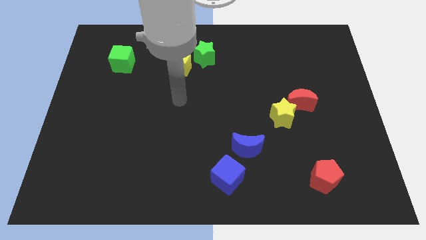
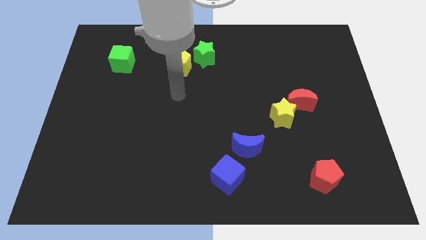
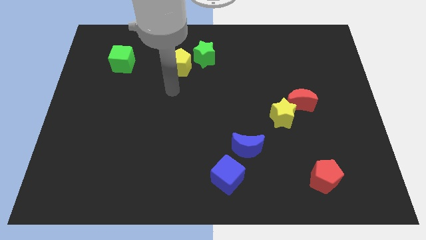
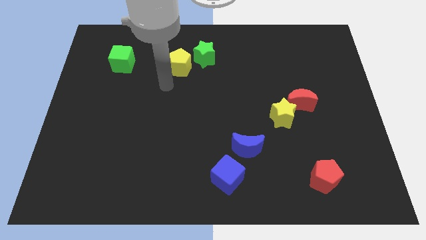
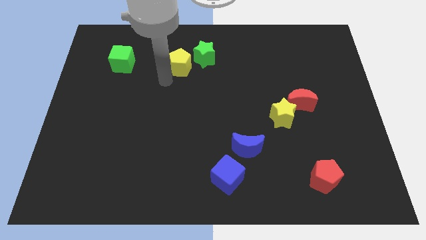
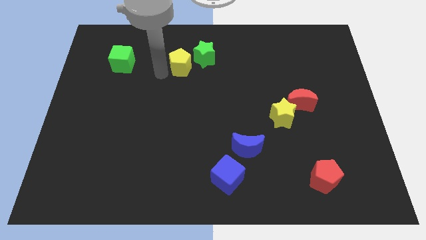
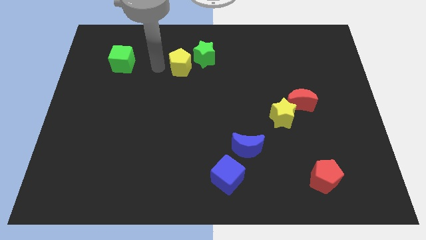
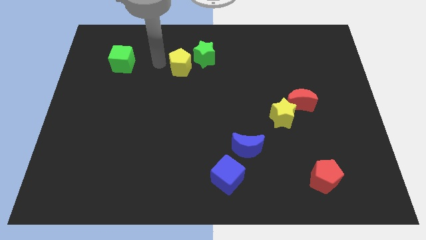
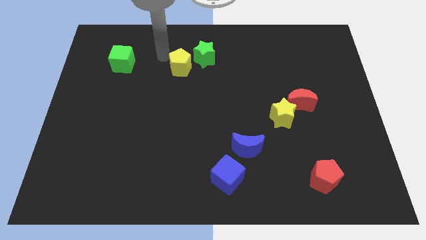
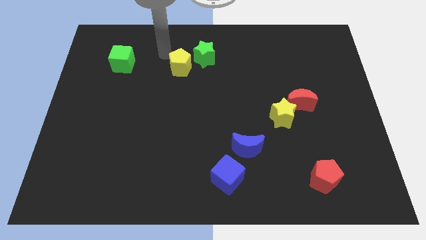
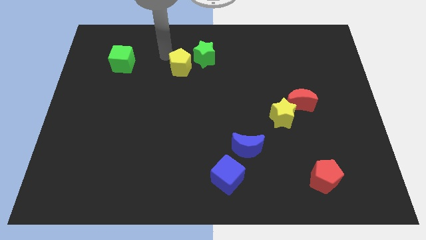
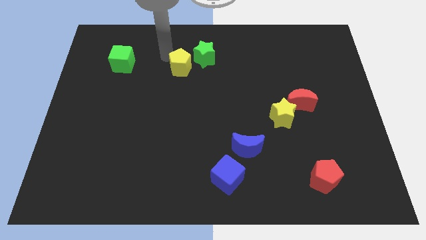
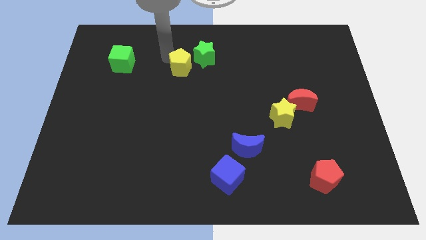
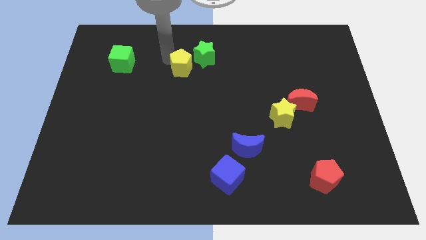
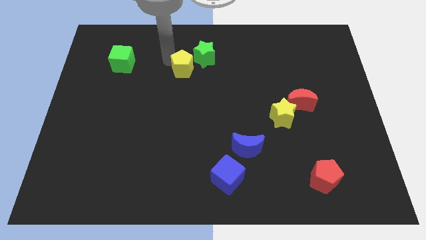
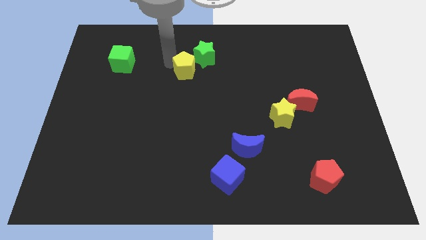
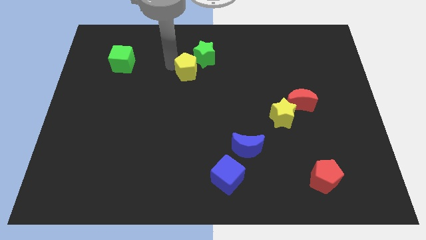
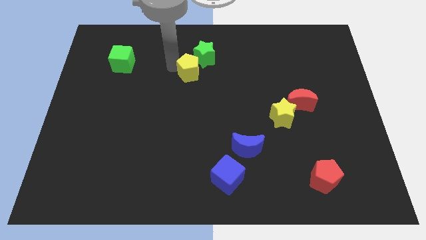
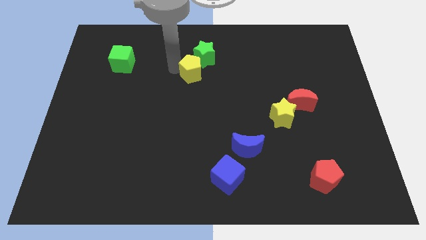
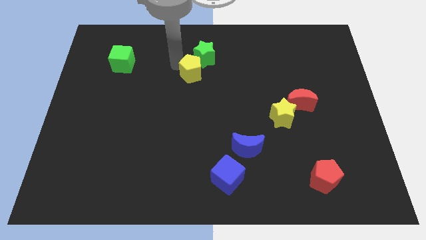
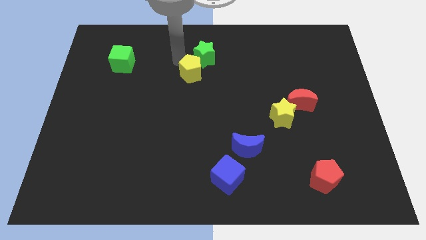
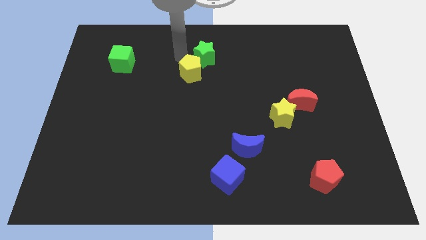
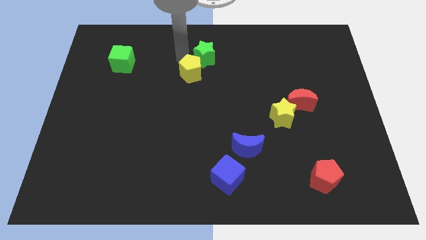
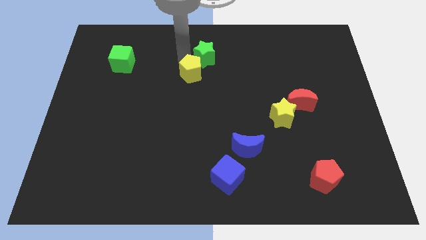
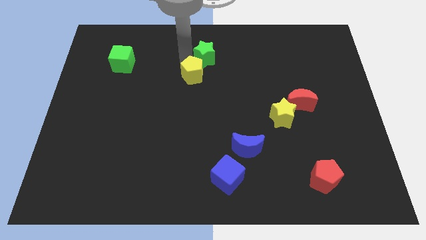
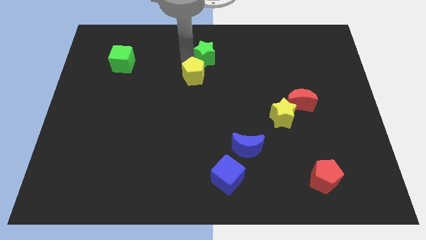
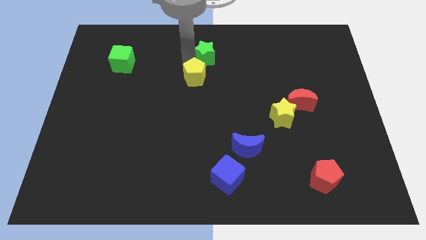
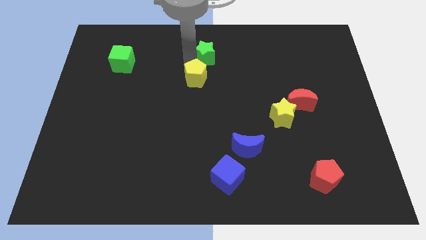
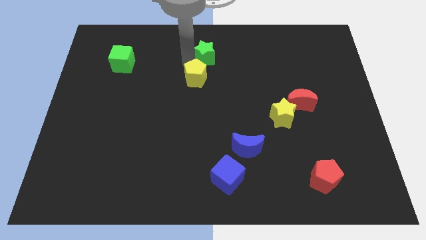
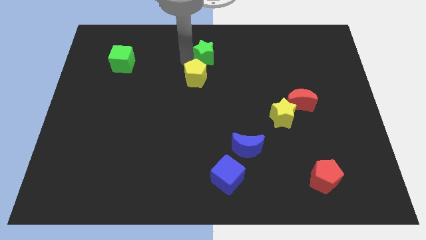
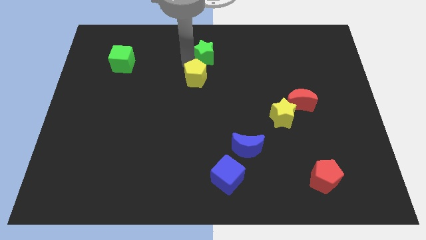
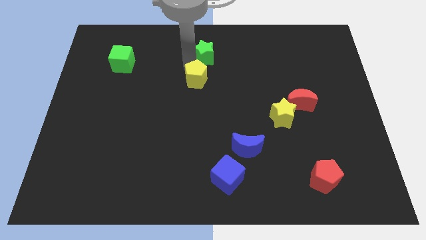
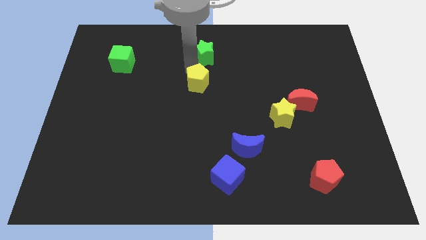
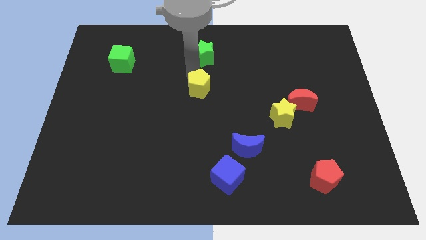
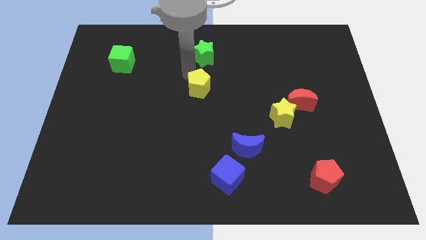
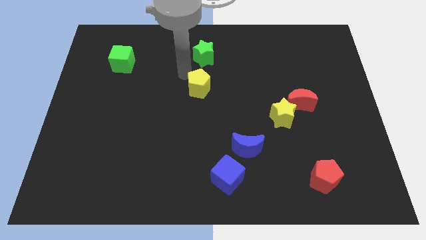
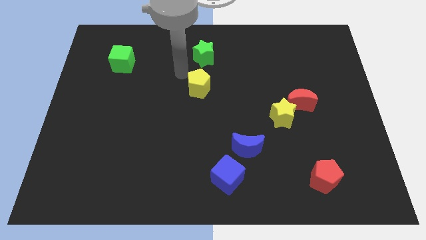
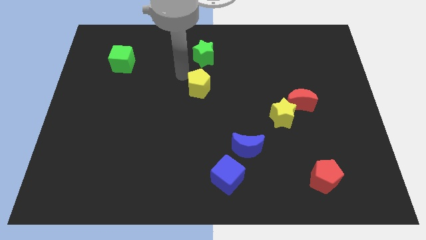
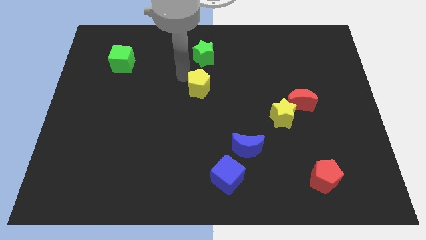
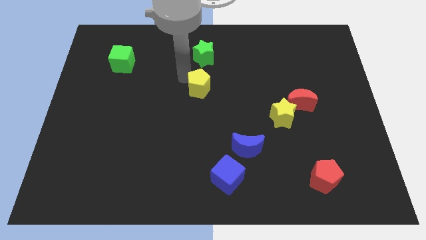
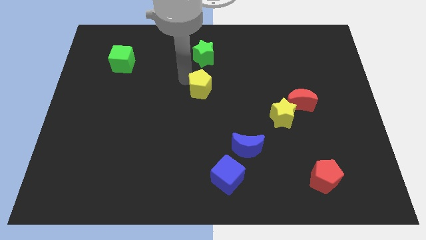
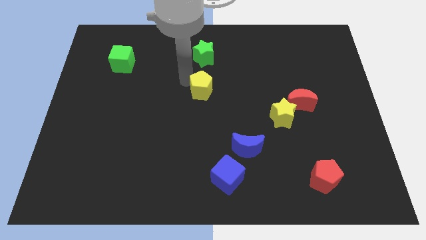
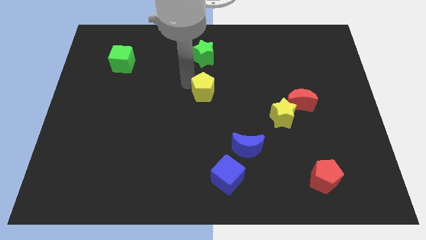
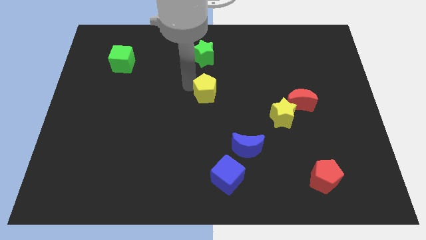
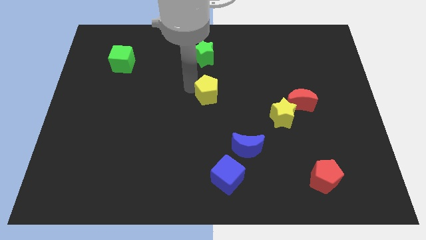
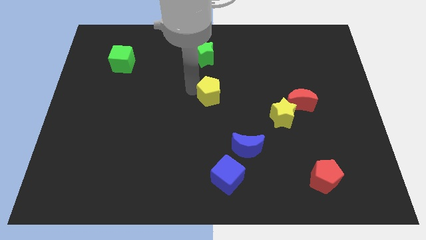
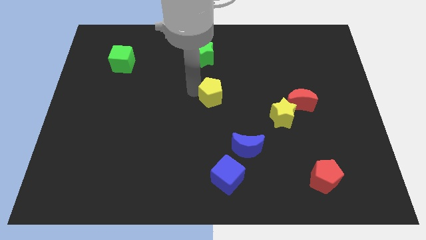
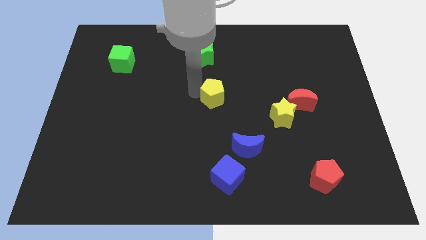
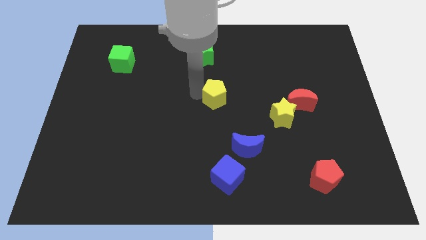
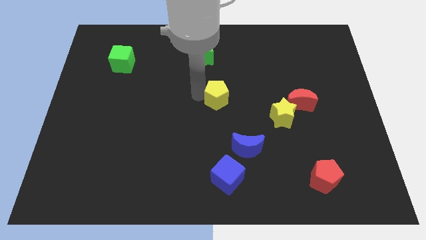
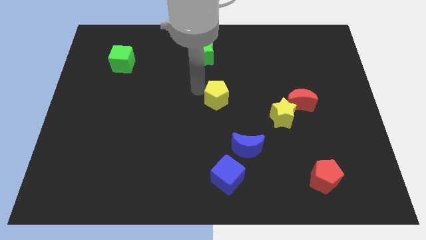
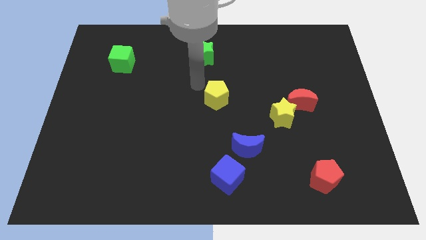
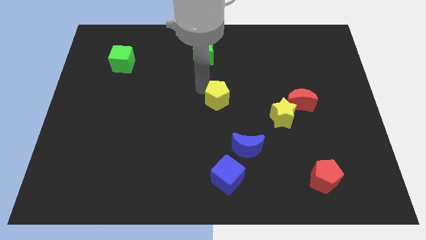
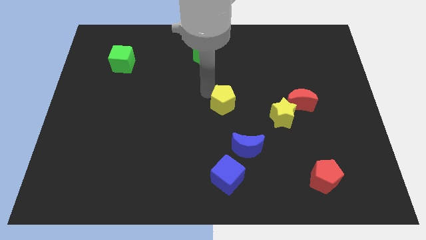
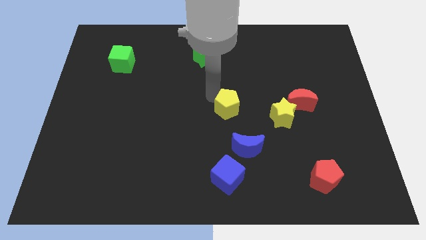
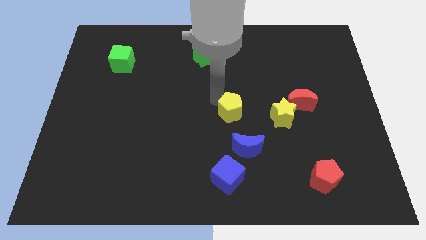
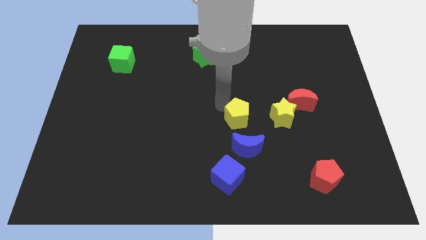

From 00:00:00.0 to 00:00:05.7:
move the yellow pentagon down and to the right

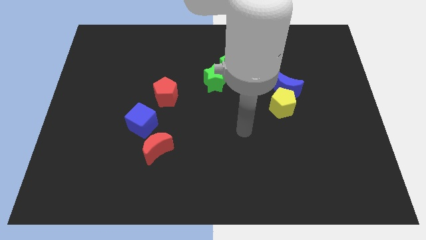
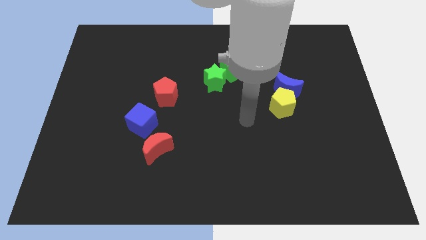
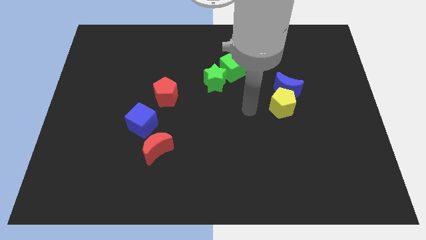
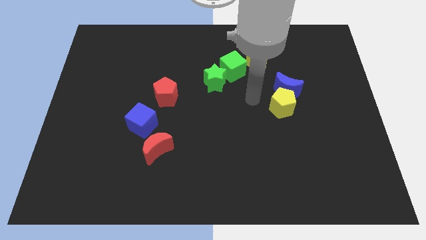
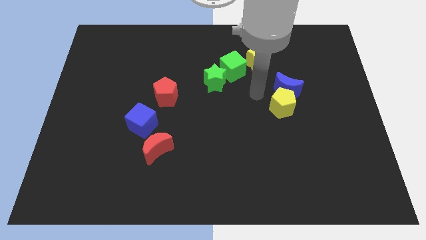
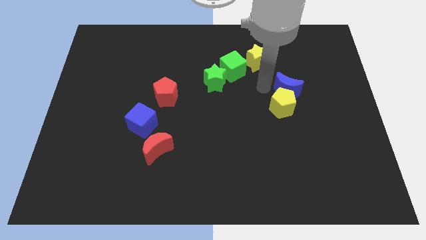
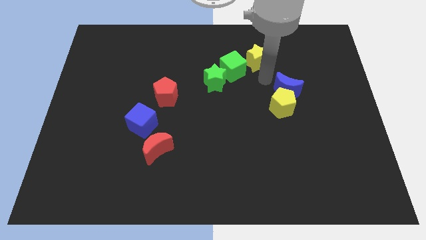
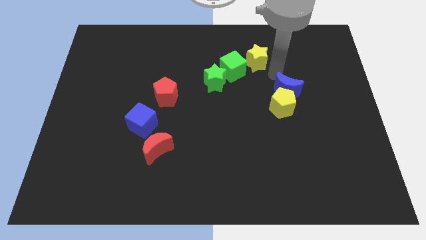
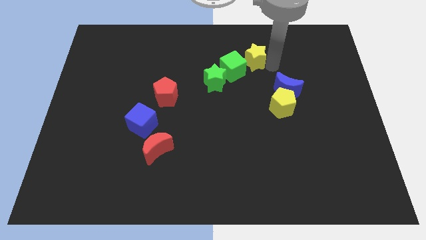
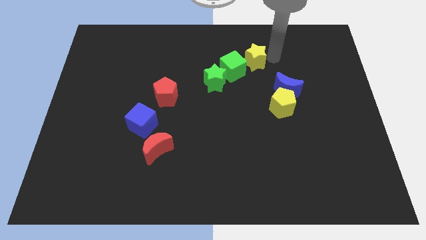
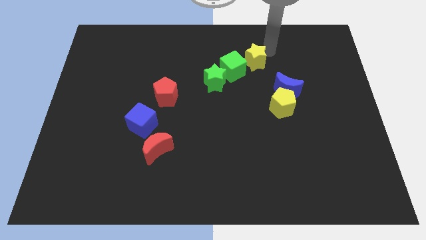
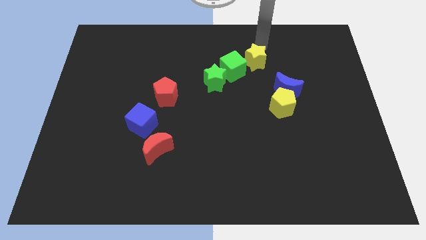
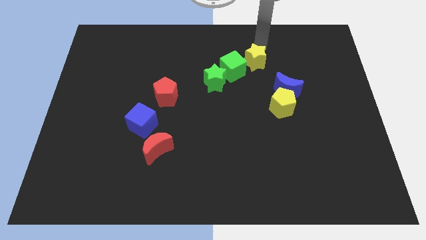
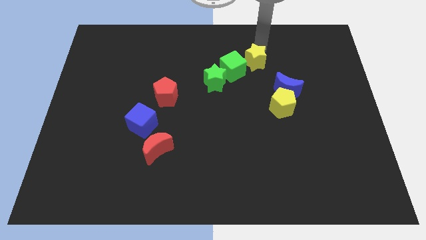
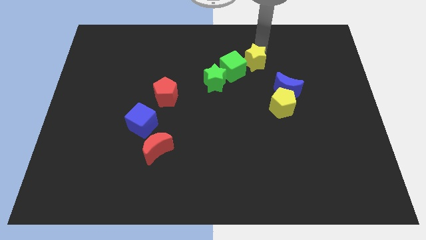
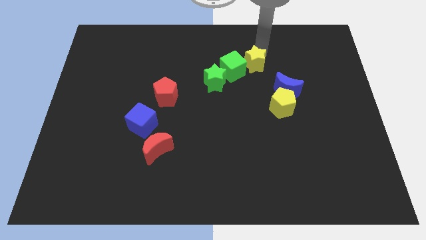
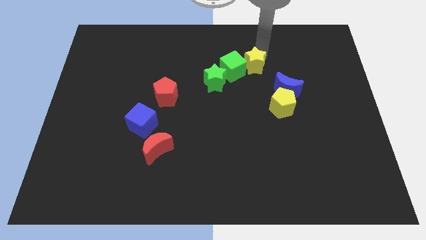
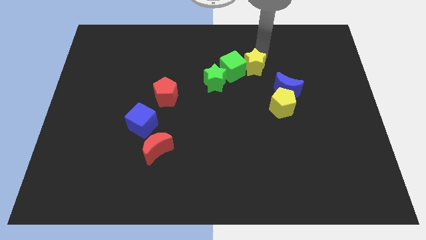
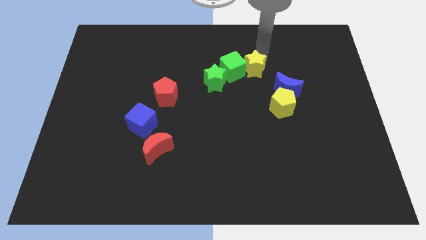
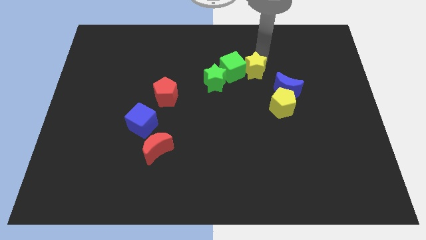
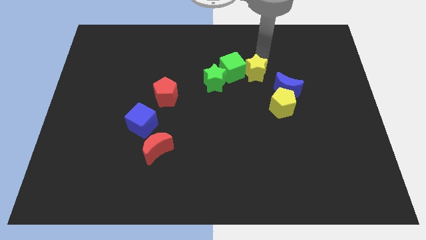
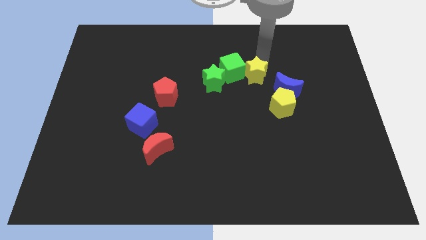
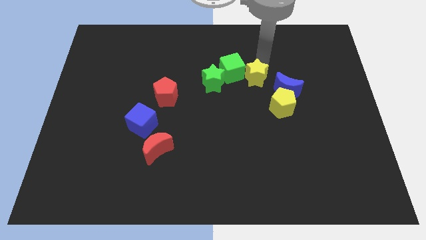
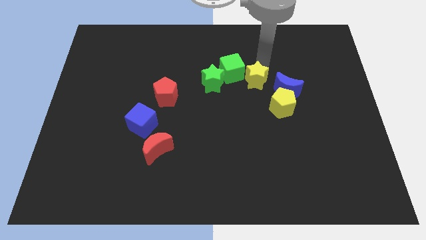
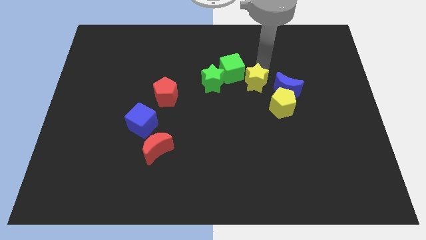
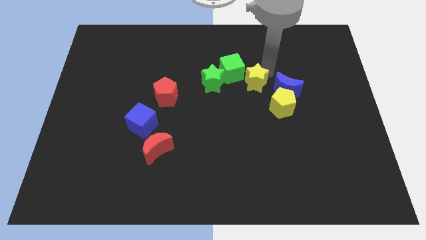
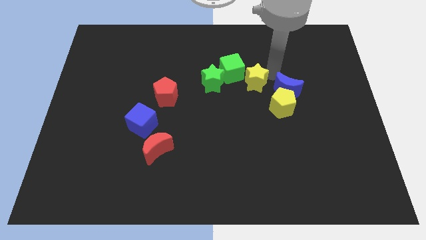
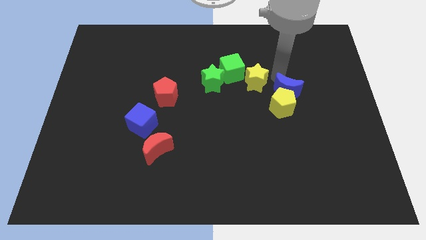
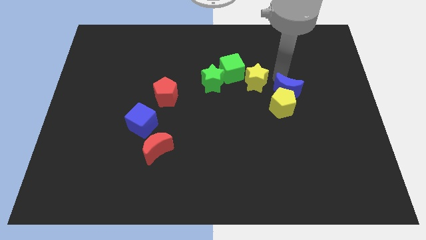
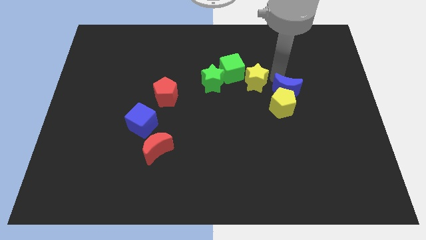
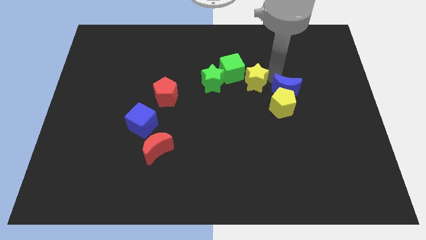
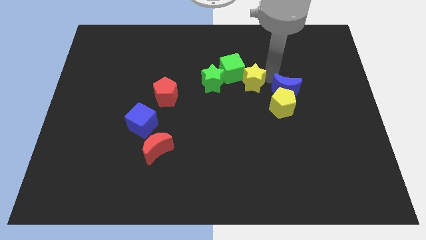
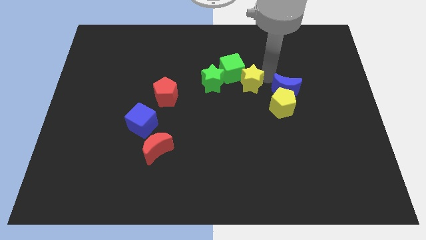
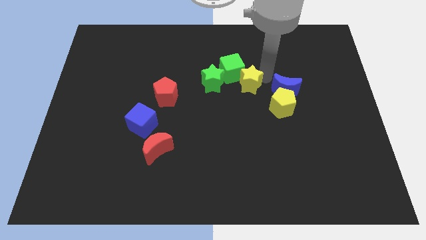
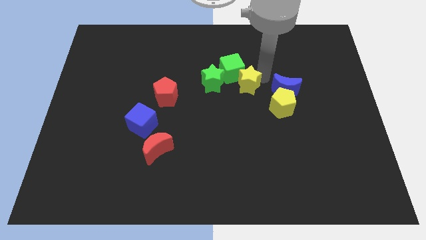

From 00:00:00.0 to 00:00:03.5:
slide the yellow star downwards and to the left a little bit
